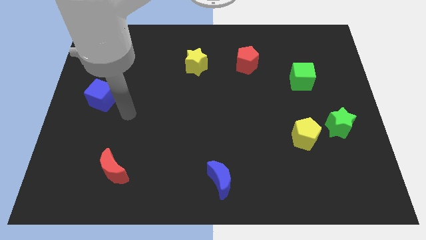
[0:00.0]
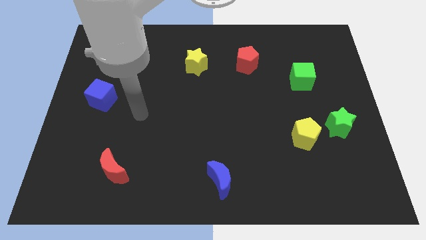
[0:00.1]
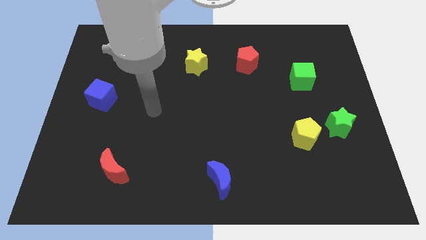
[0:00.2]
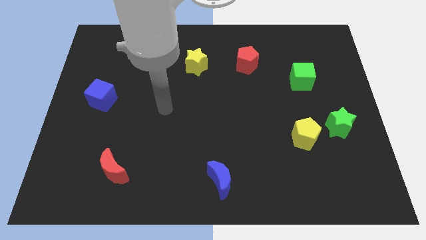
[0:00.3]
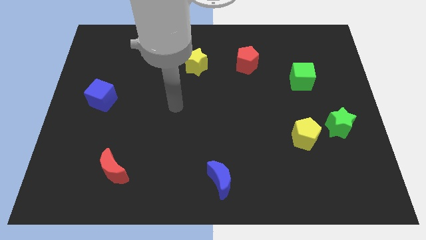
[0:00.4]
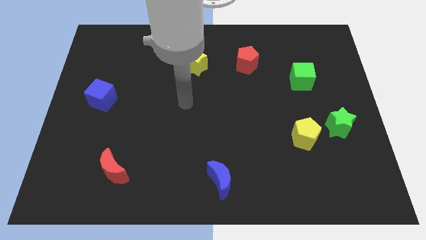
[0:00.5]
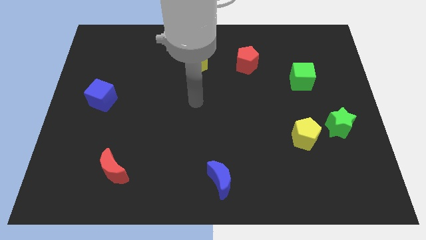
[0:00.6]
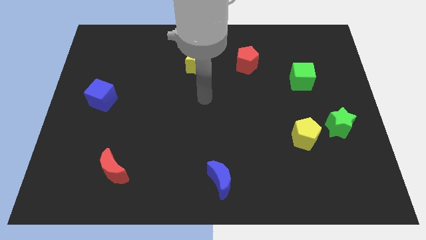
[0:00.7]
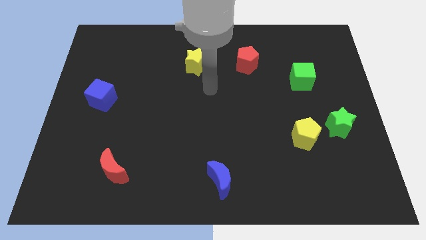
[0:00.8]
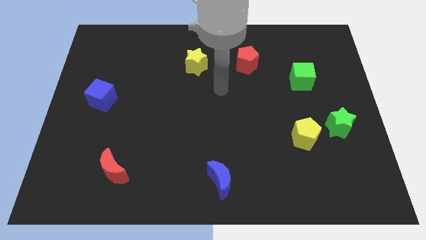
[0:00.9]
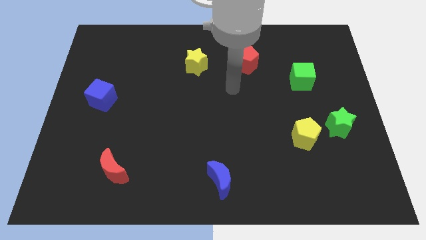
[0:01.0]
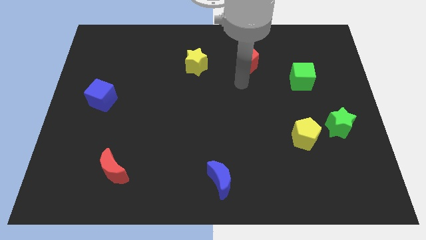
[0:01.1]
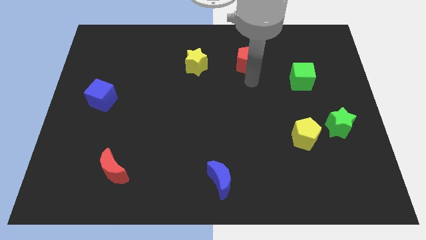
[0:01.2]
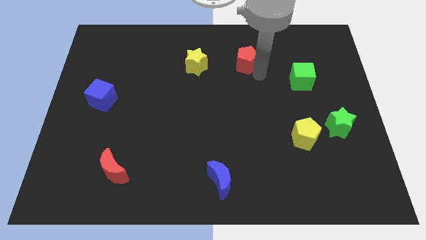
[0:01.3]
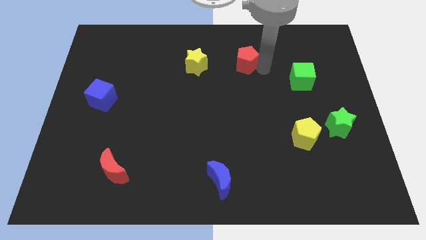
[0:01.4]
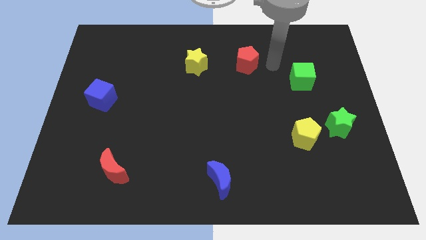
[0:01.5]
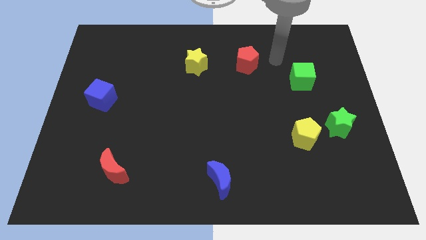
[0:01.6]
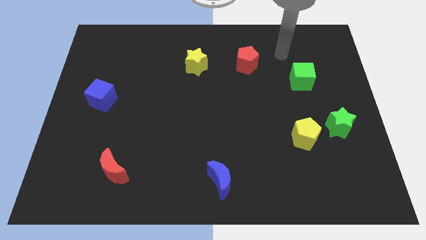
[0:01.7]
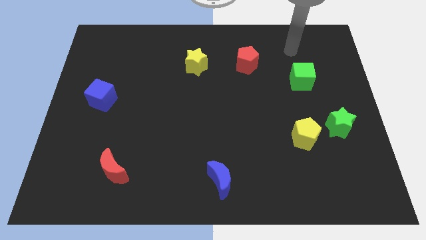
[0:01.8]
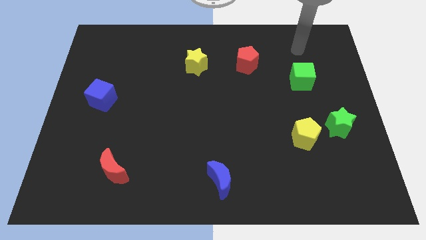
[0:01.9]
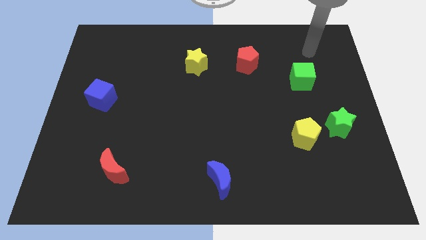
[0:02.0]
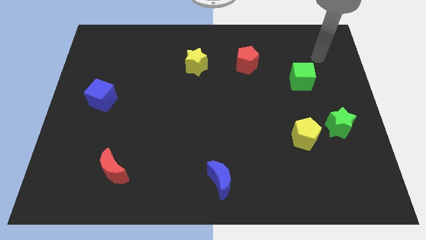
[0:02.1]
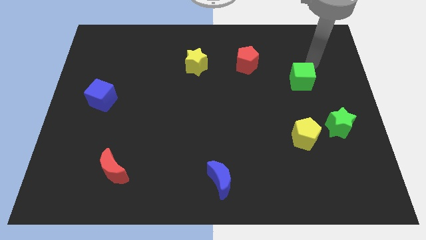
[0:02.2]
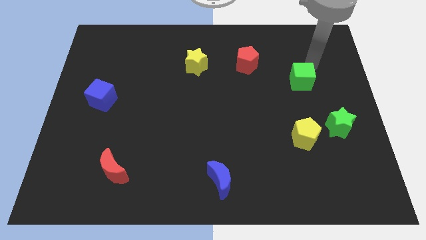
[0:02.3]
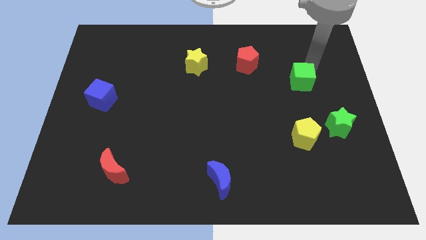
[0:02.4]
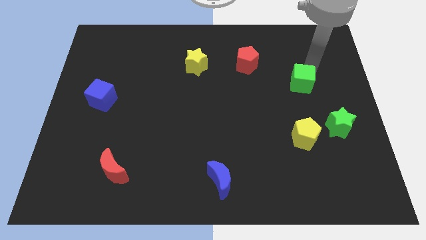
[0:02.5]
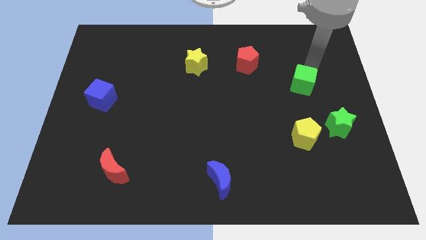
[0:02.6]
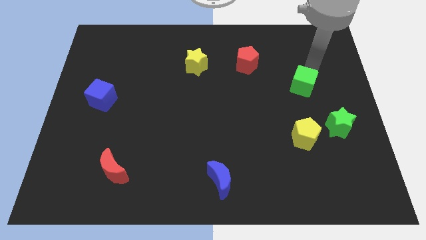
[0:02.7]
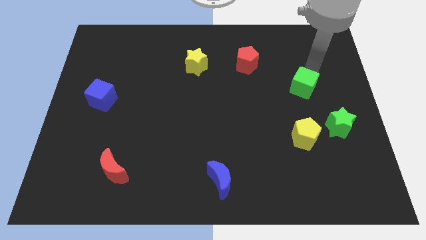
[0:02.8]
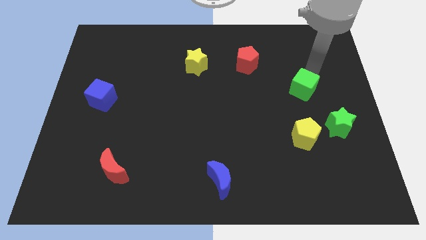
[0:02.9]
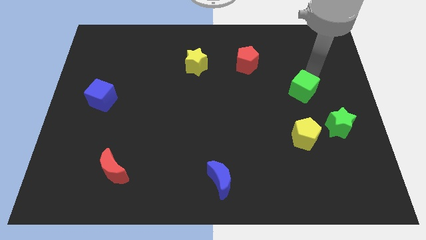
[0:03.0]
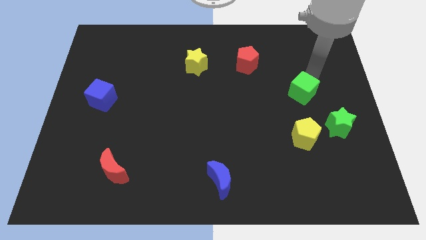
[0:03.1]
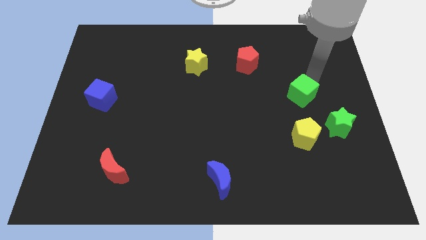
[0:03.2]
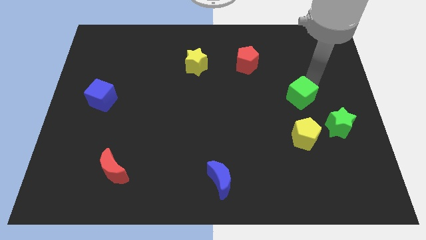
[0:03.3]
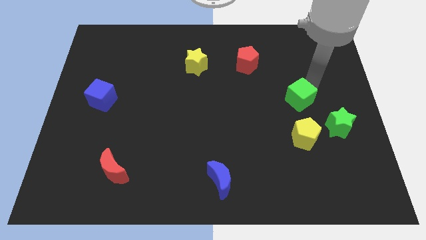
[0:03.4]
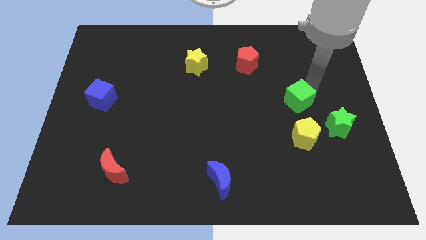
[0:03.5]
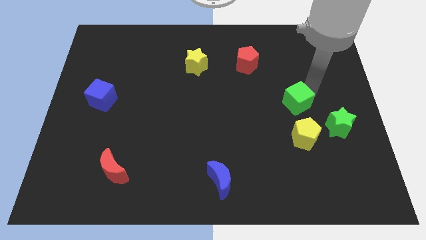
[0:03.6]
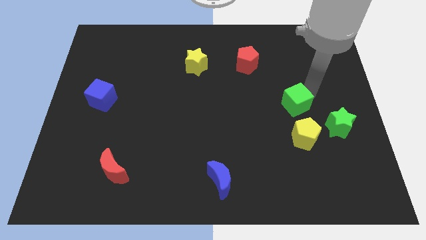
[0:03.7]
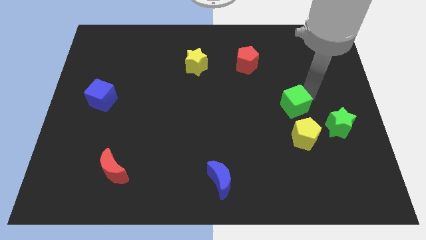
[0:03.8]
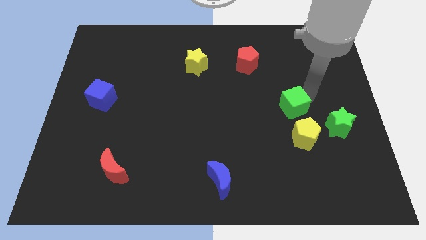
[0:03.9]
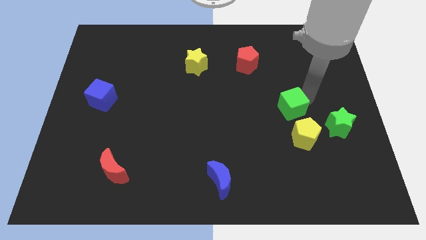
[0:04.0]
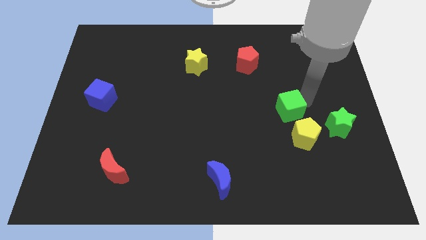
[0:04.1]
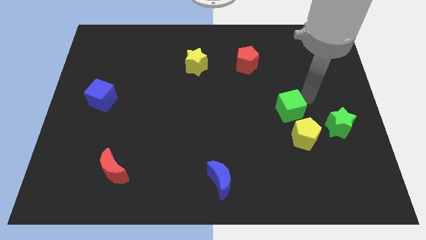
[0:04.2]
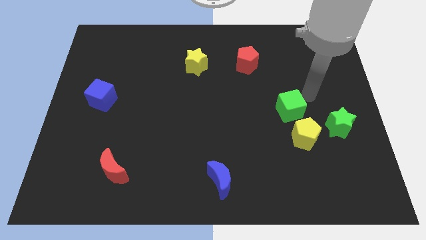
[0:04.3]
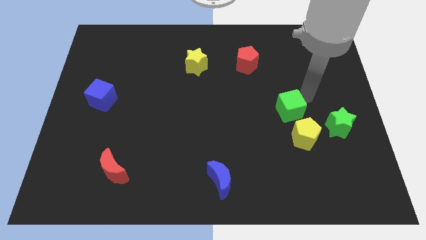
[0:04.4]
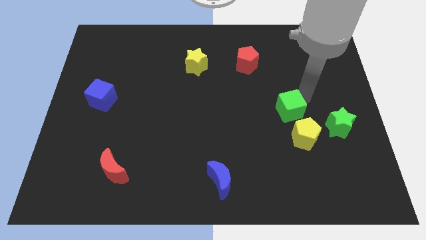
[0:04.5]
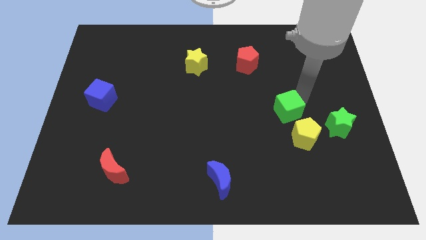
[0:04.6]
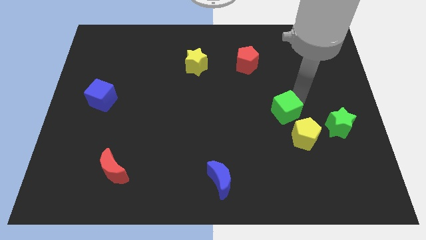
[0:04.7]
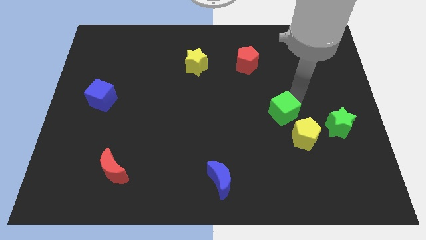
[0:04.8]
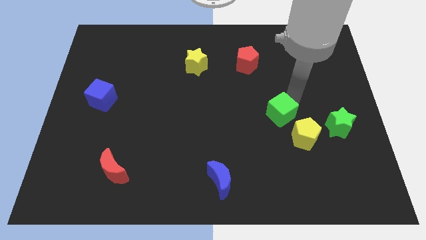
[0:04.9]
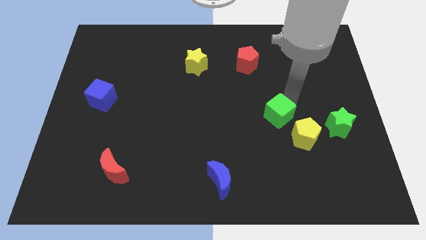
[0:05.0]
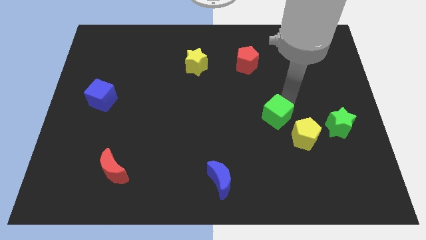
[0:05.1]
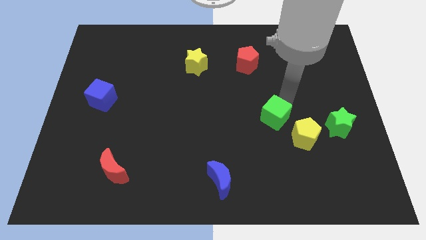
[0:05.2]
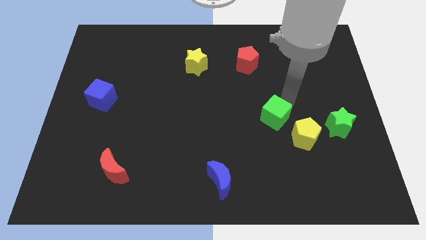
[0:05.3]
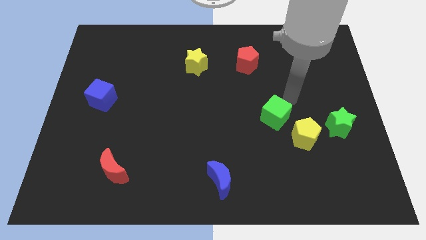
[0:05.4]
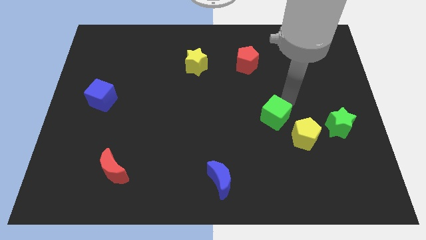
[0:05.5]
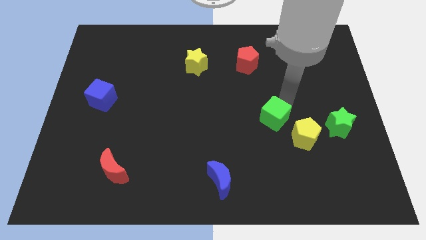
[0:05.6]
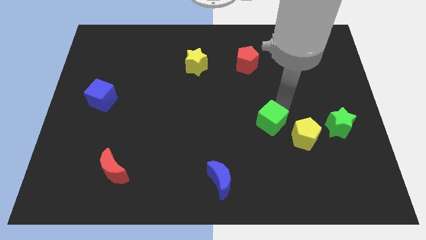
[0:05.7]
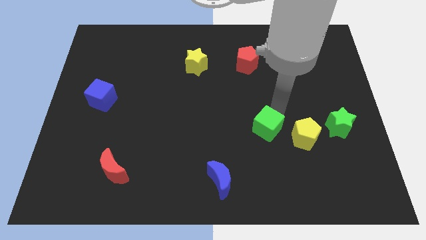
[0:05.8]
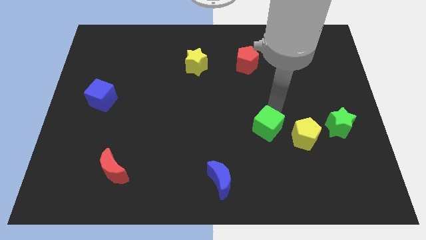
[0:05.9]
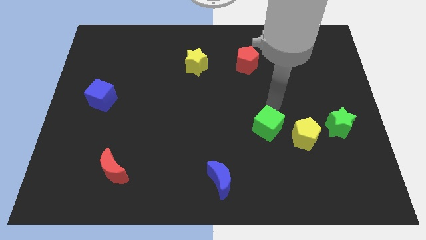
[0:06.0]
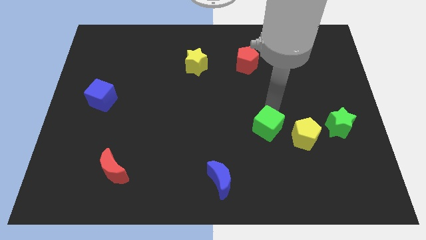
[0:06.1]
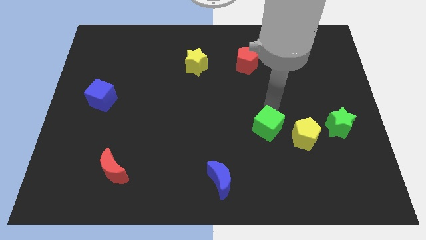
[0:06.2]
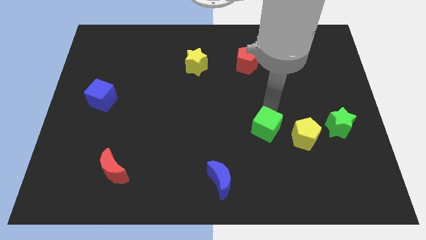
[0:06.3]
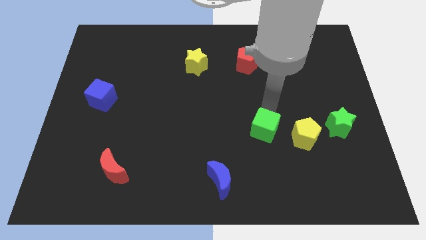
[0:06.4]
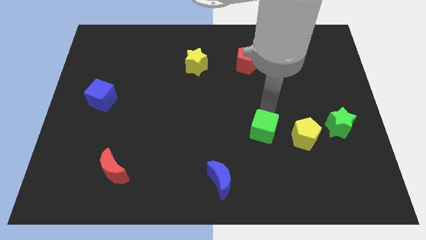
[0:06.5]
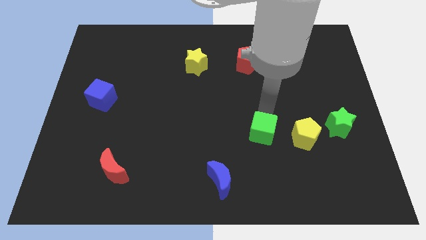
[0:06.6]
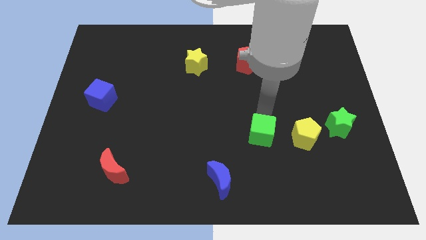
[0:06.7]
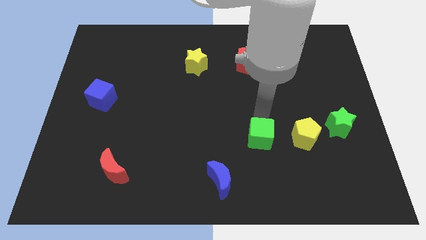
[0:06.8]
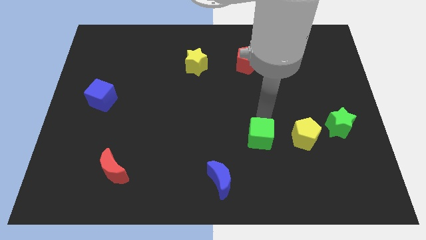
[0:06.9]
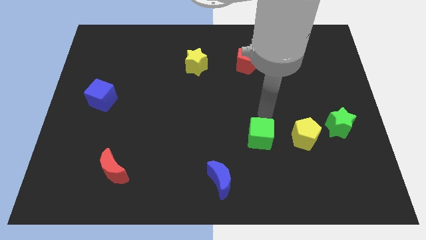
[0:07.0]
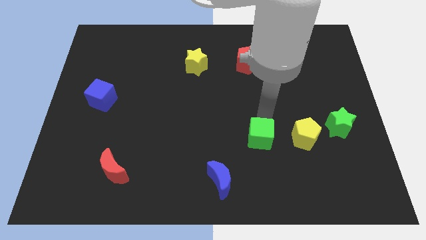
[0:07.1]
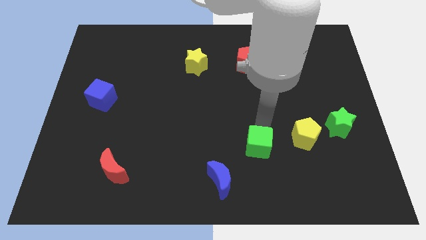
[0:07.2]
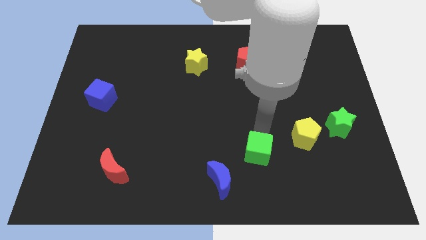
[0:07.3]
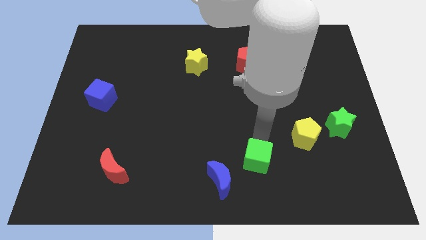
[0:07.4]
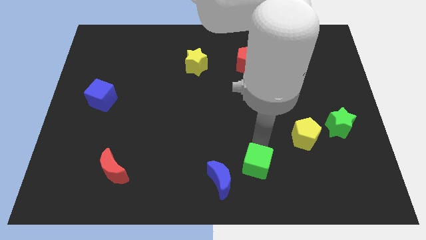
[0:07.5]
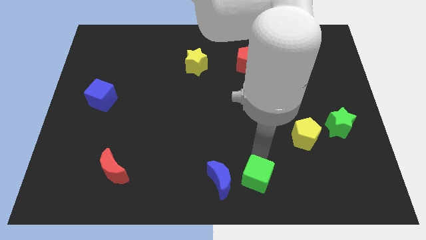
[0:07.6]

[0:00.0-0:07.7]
put the green cube to the bottom
